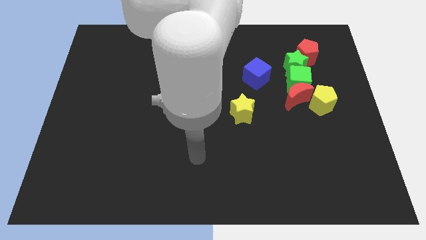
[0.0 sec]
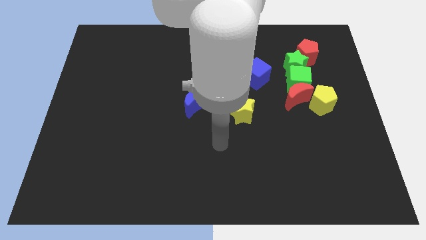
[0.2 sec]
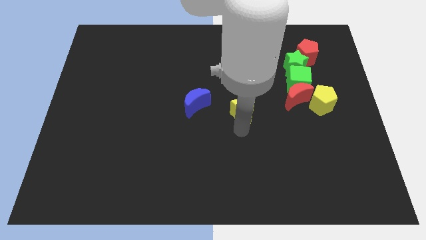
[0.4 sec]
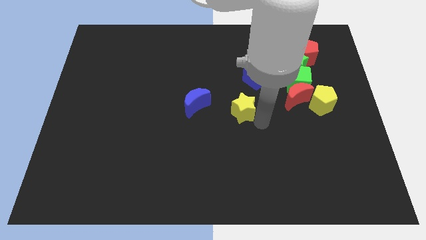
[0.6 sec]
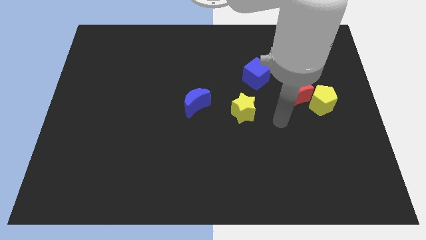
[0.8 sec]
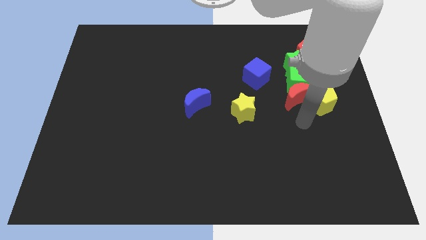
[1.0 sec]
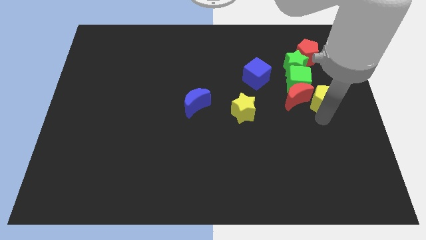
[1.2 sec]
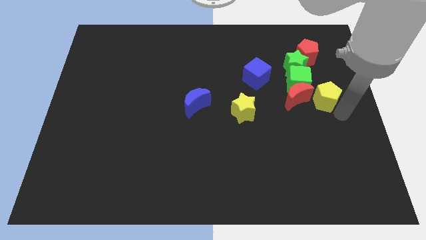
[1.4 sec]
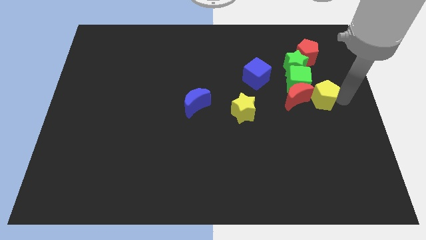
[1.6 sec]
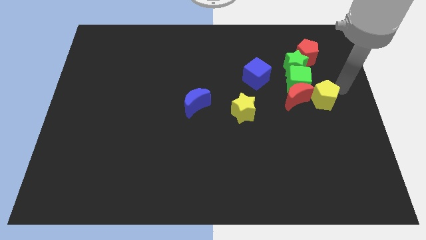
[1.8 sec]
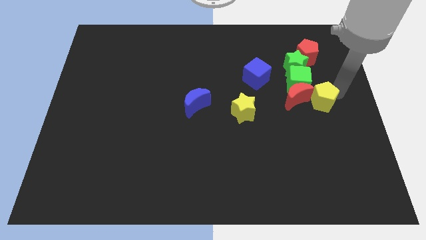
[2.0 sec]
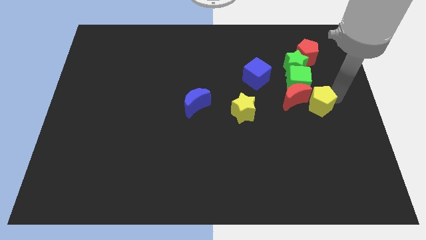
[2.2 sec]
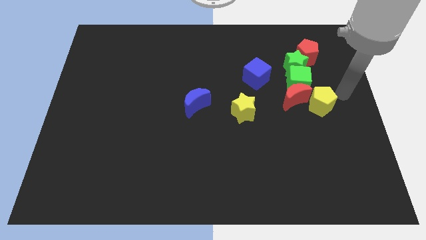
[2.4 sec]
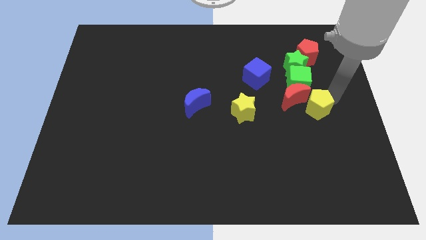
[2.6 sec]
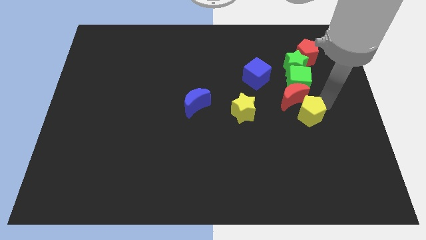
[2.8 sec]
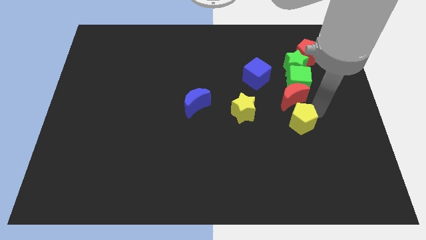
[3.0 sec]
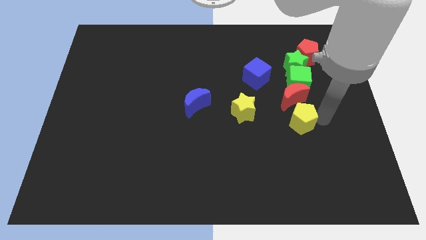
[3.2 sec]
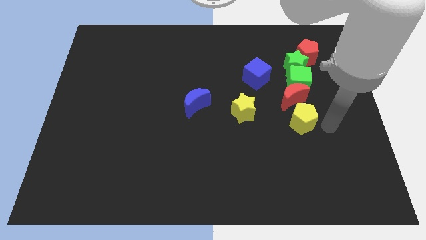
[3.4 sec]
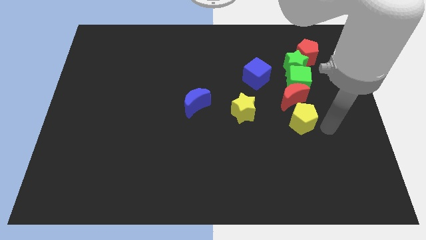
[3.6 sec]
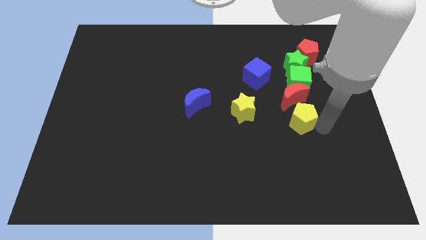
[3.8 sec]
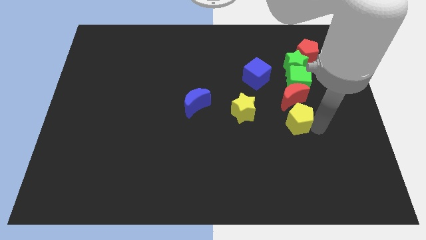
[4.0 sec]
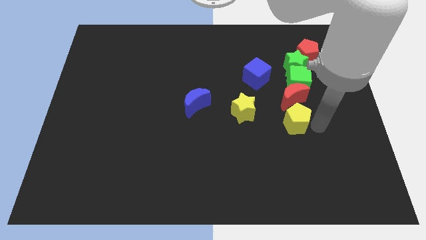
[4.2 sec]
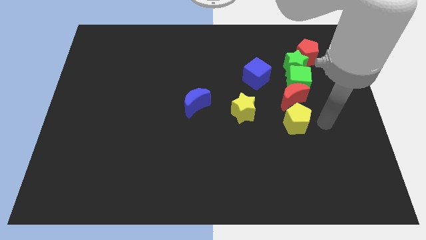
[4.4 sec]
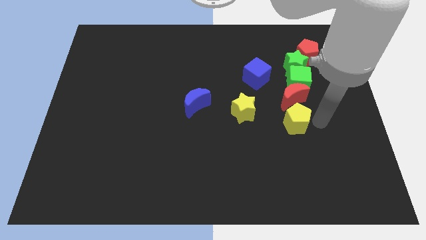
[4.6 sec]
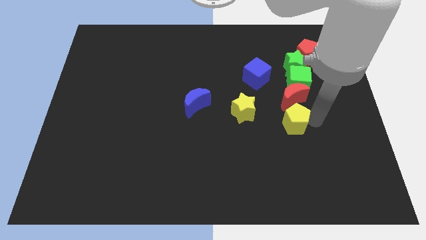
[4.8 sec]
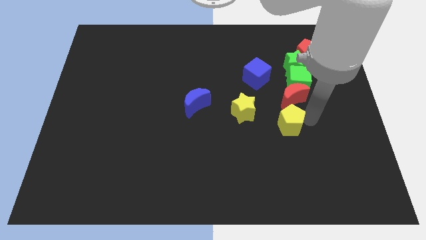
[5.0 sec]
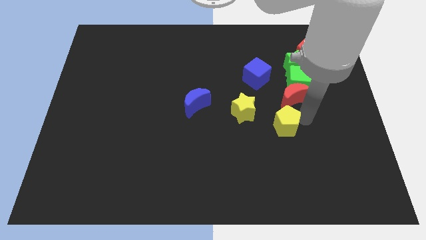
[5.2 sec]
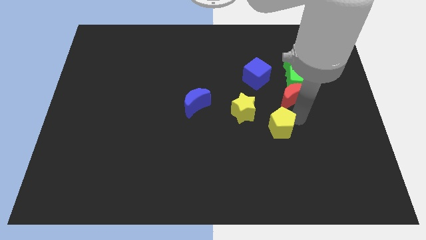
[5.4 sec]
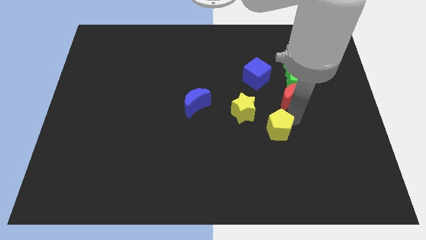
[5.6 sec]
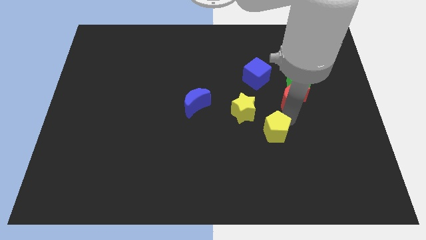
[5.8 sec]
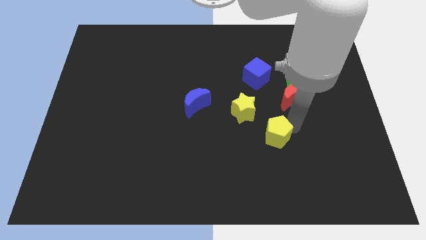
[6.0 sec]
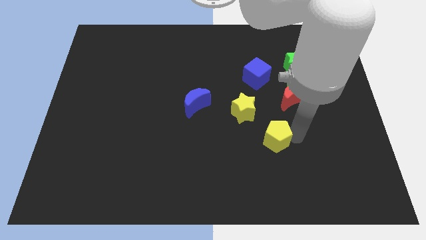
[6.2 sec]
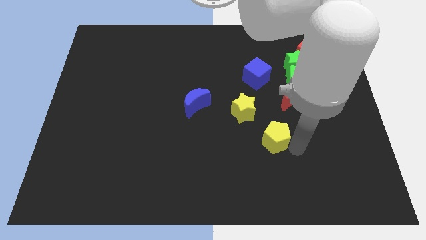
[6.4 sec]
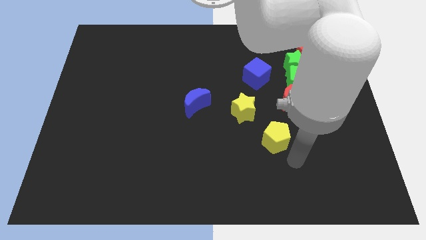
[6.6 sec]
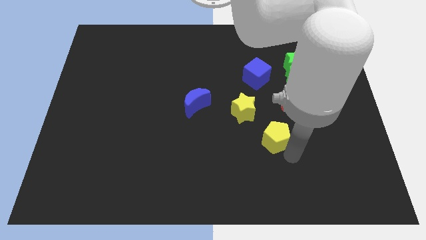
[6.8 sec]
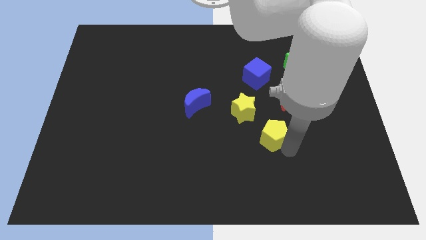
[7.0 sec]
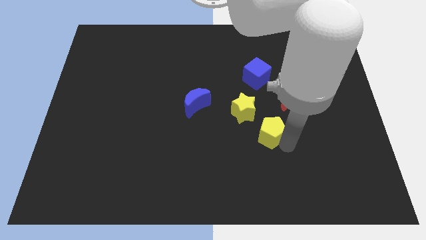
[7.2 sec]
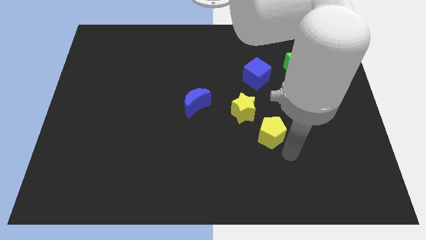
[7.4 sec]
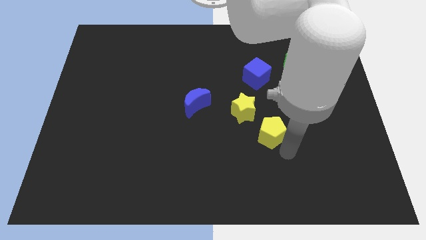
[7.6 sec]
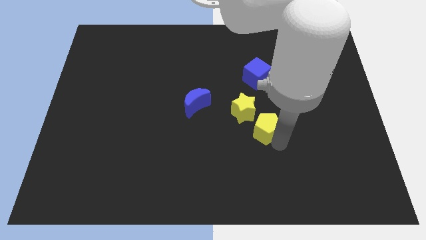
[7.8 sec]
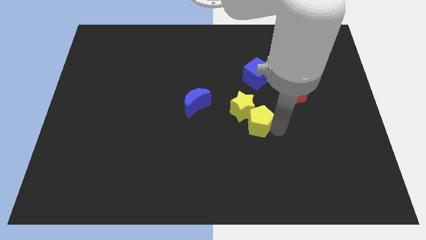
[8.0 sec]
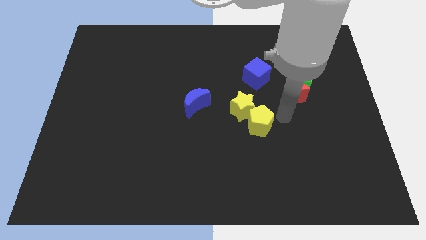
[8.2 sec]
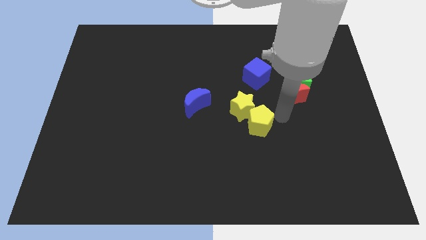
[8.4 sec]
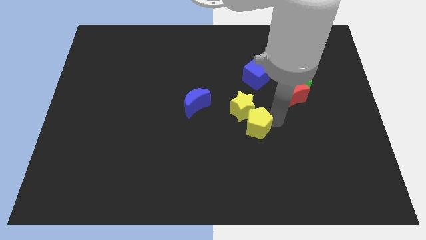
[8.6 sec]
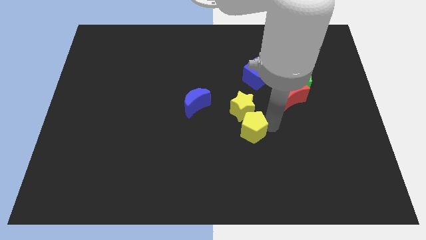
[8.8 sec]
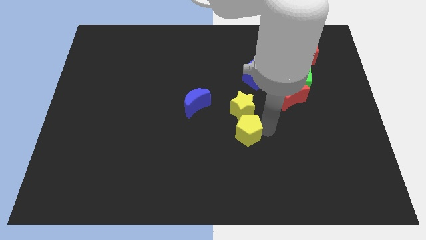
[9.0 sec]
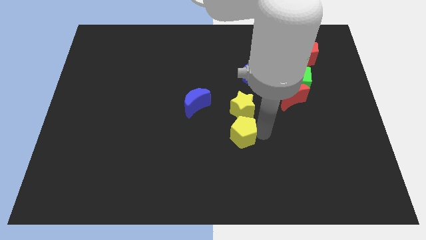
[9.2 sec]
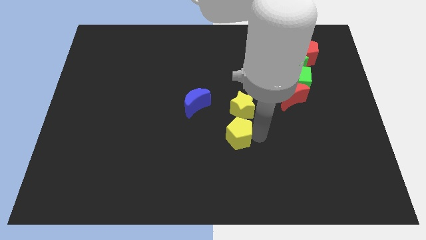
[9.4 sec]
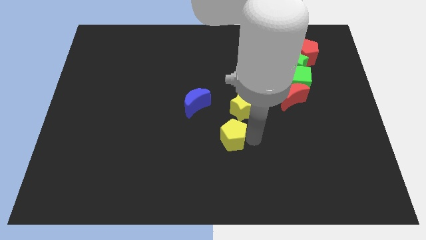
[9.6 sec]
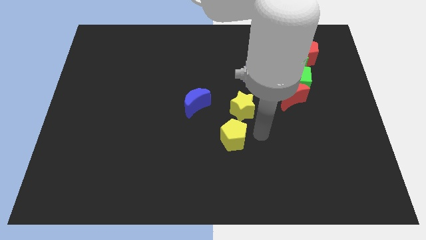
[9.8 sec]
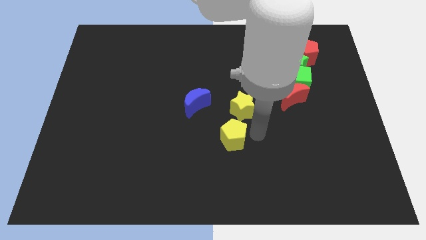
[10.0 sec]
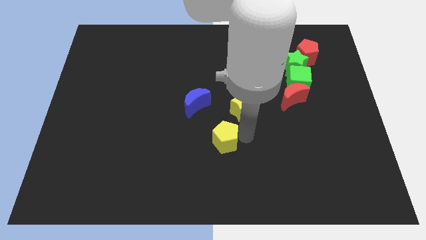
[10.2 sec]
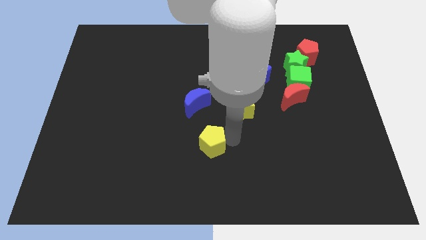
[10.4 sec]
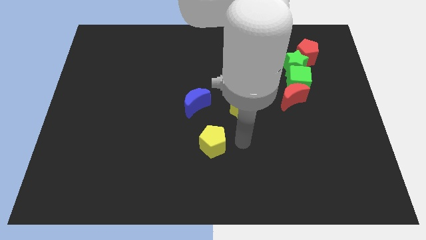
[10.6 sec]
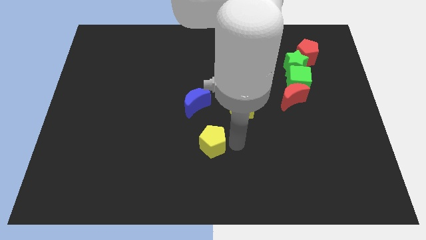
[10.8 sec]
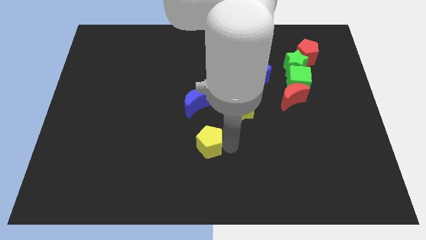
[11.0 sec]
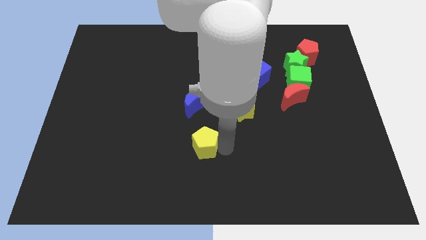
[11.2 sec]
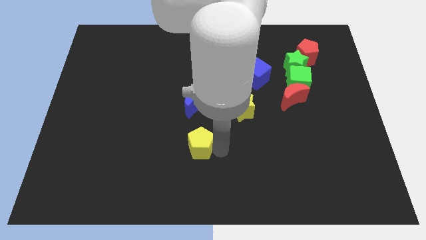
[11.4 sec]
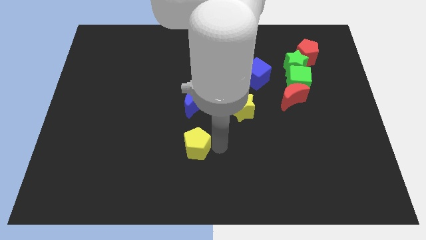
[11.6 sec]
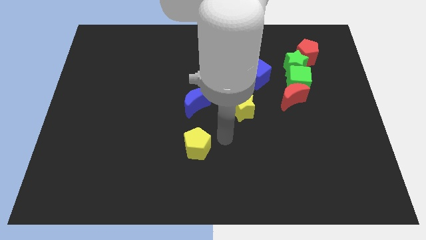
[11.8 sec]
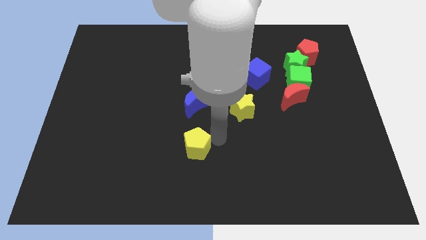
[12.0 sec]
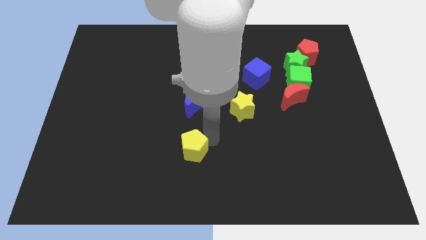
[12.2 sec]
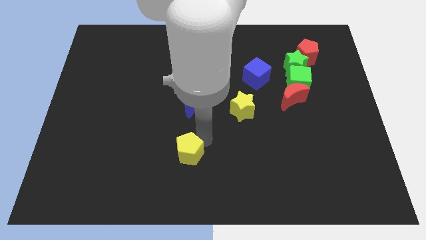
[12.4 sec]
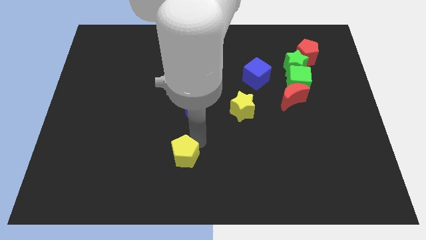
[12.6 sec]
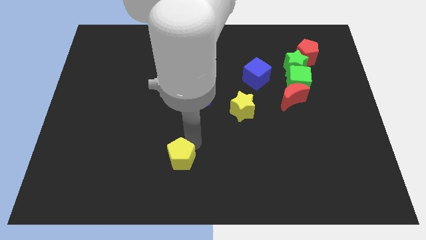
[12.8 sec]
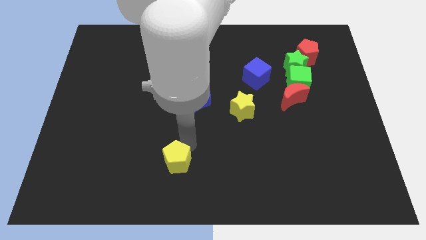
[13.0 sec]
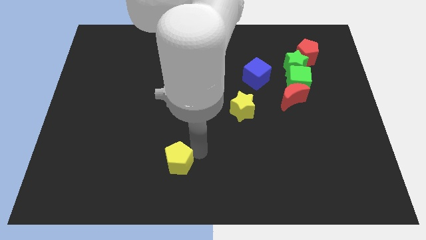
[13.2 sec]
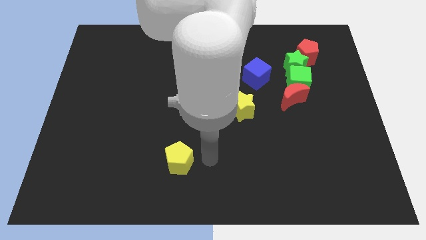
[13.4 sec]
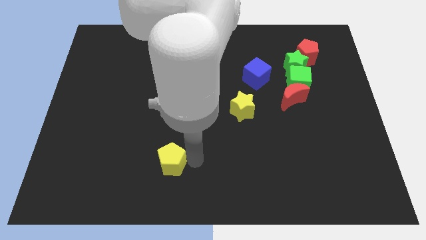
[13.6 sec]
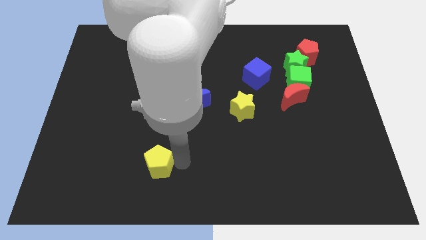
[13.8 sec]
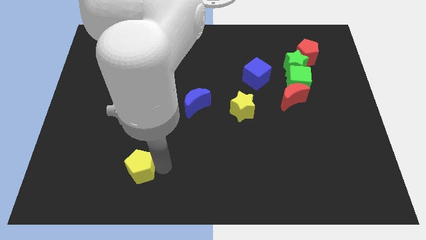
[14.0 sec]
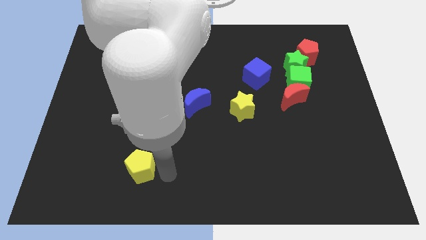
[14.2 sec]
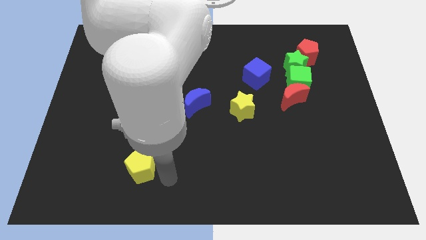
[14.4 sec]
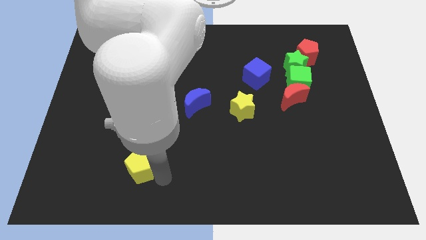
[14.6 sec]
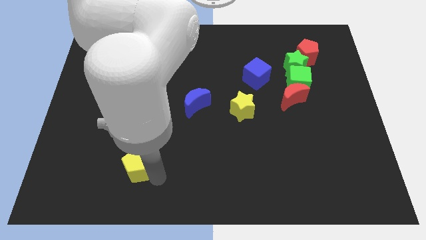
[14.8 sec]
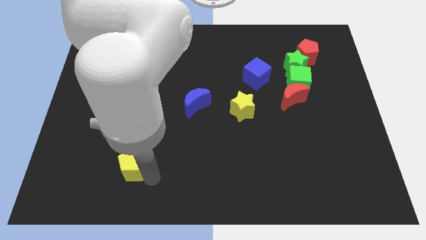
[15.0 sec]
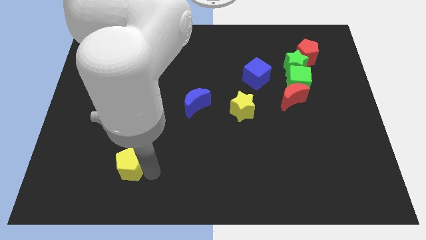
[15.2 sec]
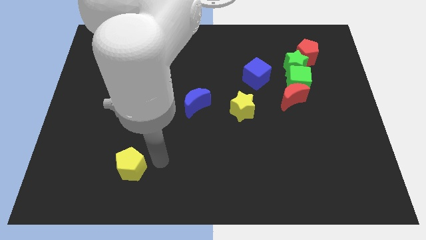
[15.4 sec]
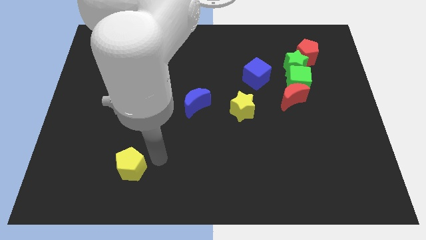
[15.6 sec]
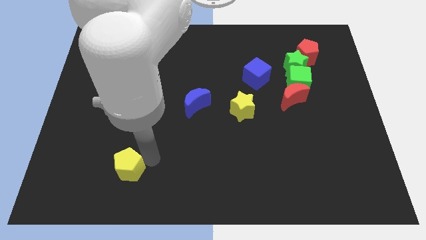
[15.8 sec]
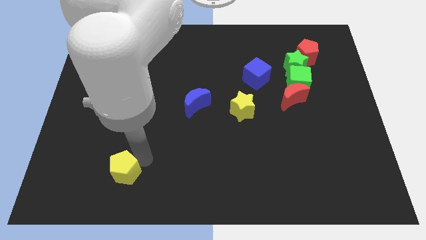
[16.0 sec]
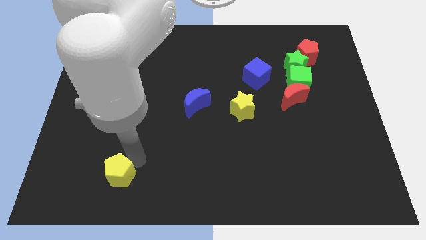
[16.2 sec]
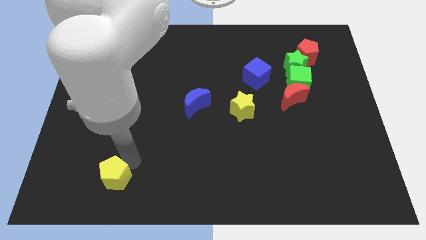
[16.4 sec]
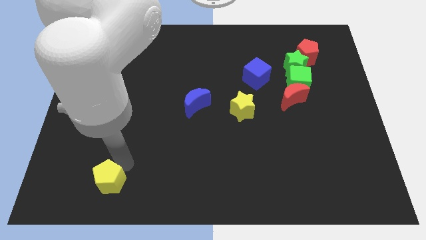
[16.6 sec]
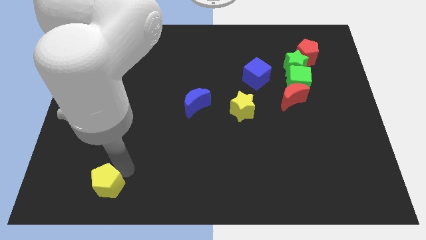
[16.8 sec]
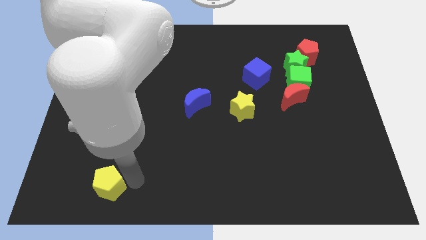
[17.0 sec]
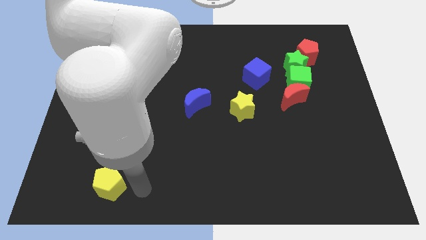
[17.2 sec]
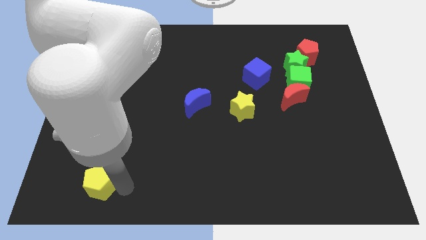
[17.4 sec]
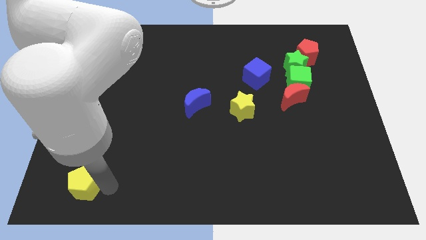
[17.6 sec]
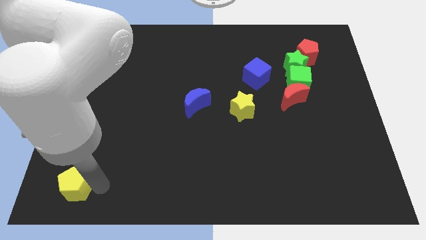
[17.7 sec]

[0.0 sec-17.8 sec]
slide the yellow pentagon to the bottom left of the board
